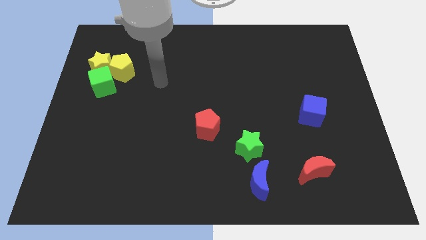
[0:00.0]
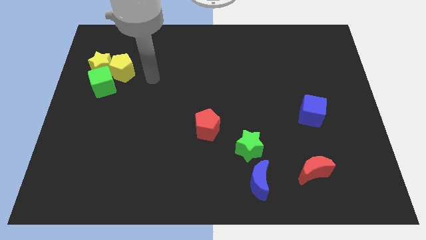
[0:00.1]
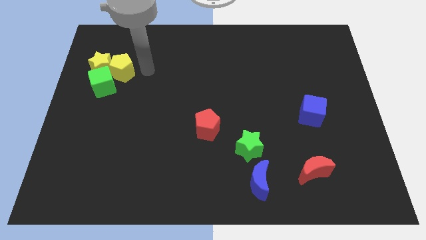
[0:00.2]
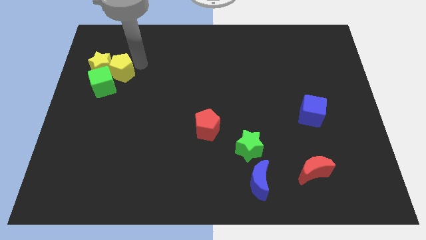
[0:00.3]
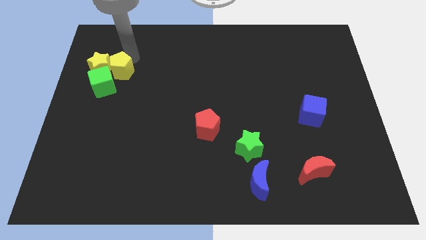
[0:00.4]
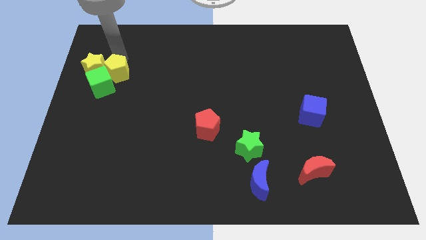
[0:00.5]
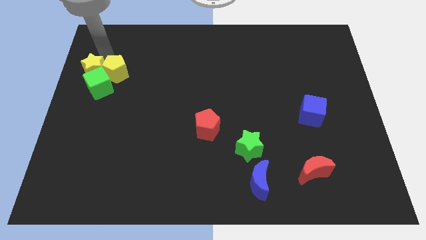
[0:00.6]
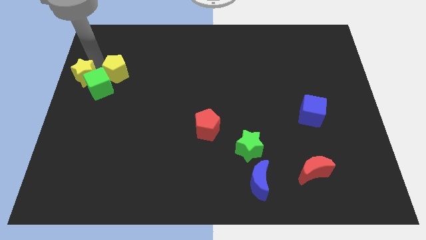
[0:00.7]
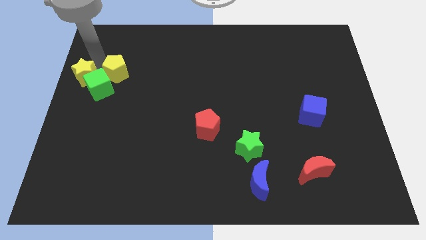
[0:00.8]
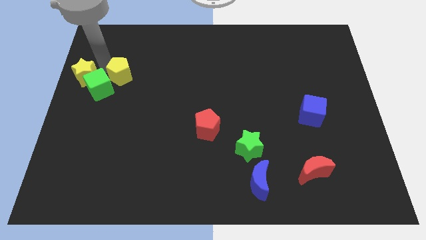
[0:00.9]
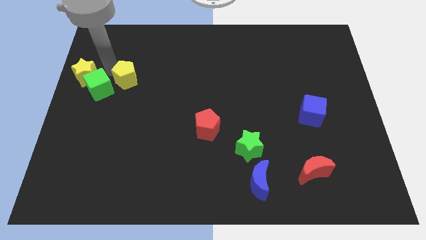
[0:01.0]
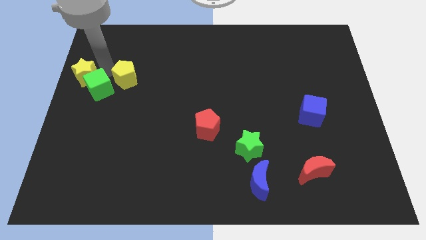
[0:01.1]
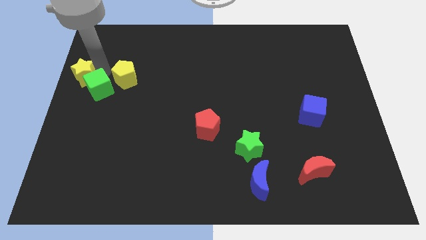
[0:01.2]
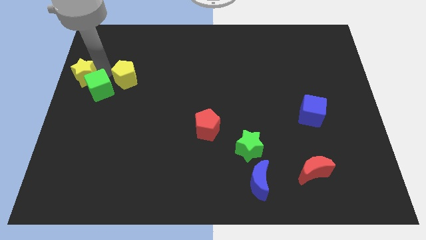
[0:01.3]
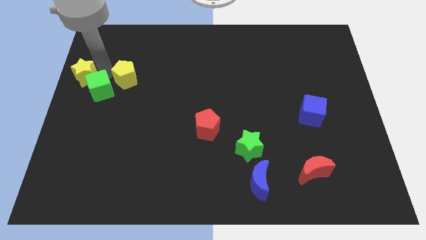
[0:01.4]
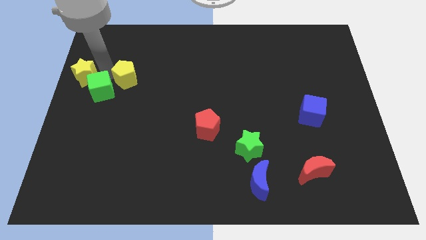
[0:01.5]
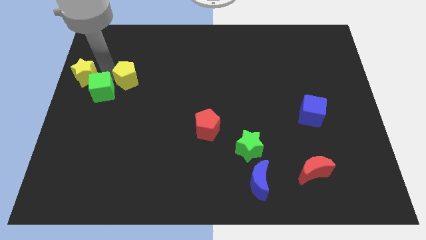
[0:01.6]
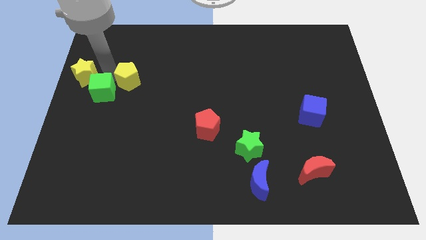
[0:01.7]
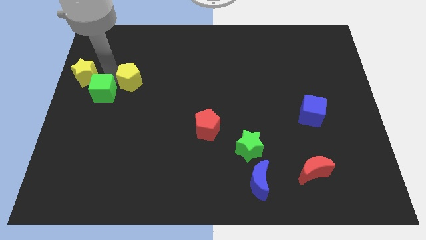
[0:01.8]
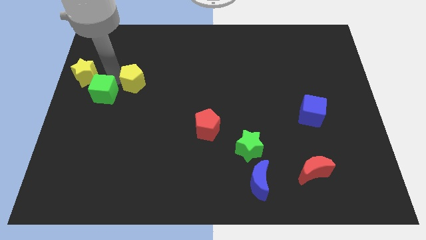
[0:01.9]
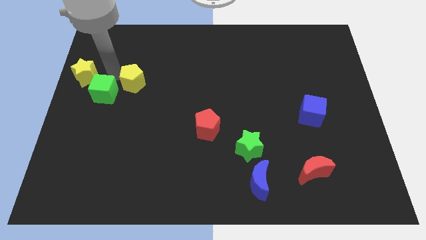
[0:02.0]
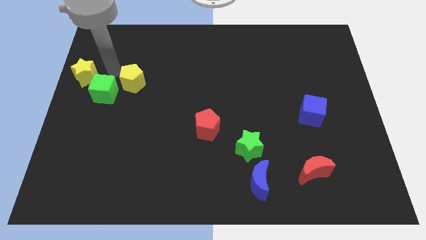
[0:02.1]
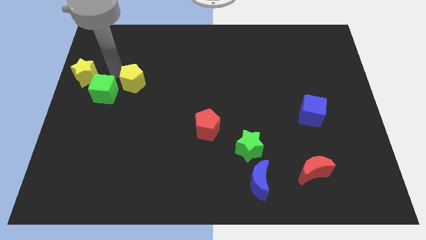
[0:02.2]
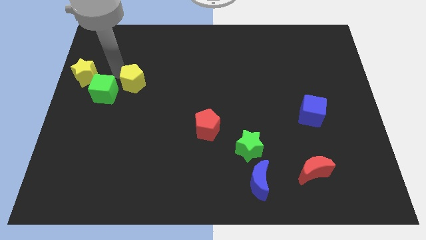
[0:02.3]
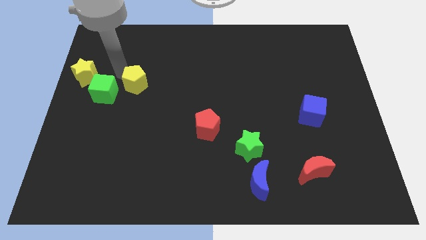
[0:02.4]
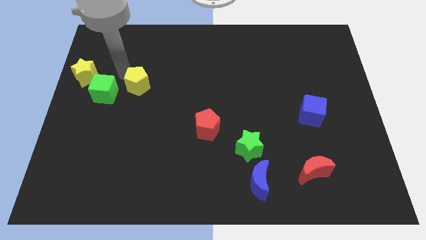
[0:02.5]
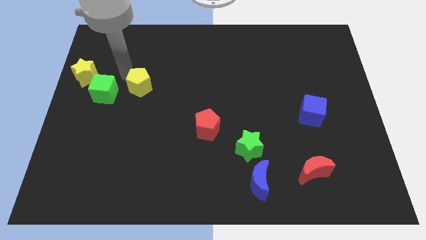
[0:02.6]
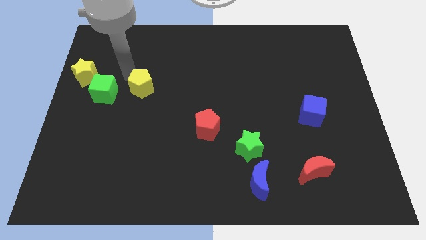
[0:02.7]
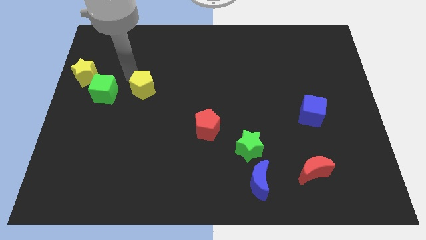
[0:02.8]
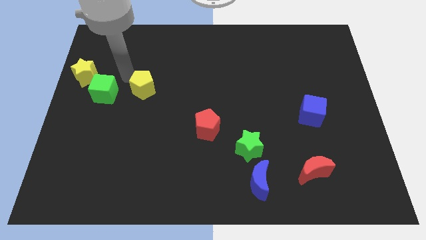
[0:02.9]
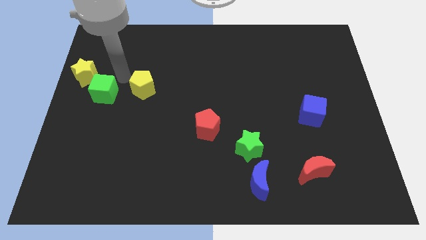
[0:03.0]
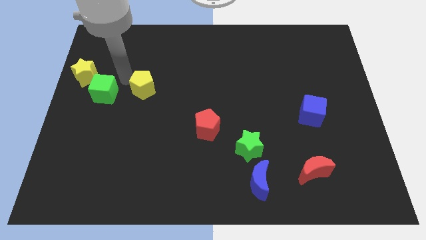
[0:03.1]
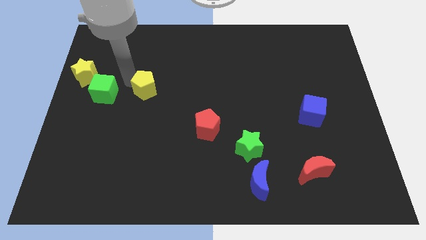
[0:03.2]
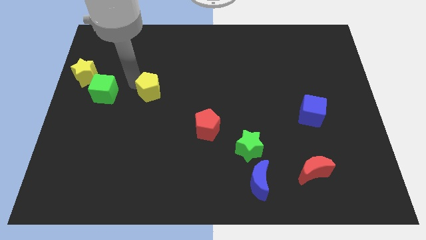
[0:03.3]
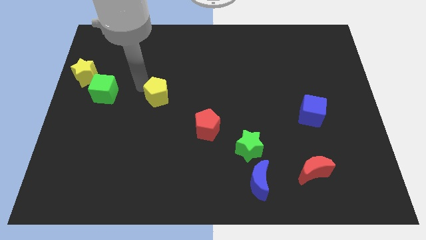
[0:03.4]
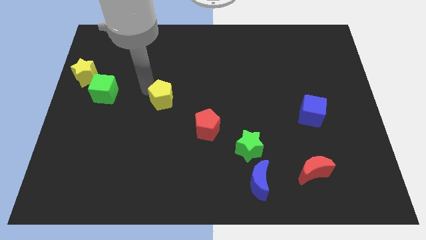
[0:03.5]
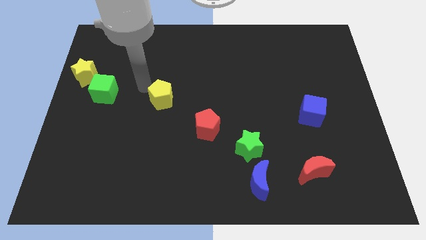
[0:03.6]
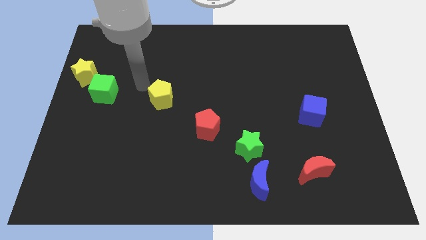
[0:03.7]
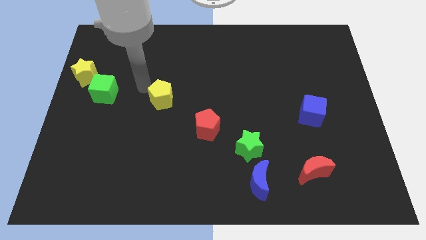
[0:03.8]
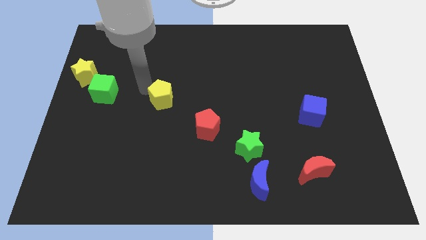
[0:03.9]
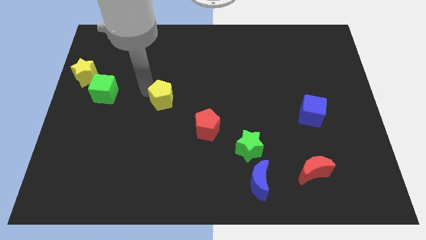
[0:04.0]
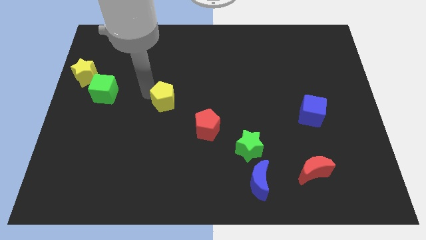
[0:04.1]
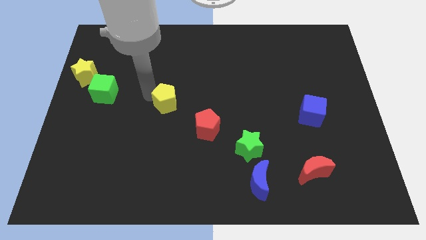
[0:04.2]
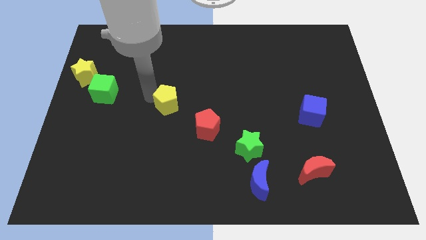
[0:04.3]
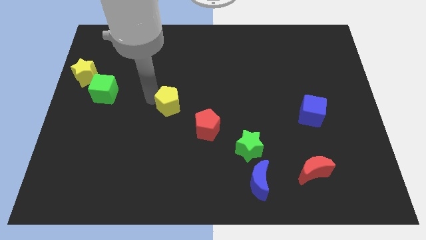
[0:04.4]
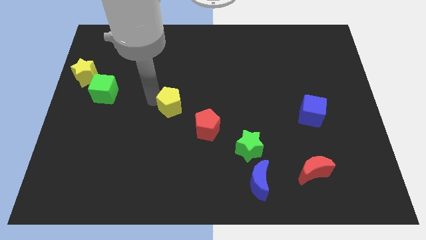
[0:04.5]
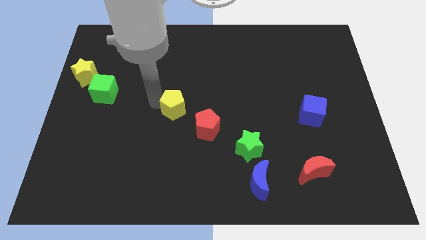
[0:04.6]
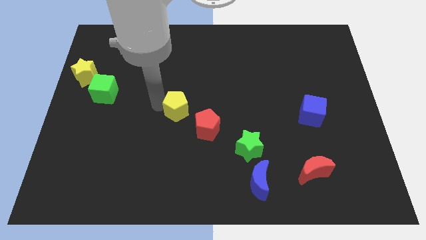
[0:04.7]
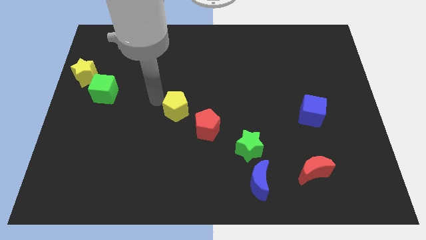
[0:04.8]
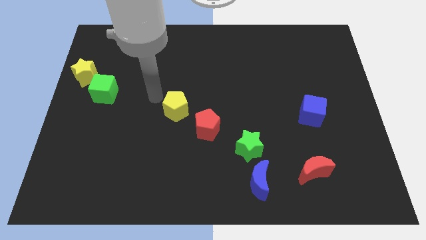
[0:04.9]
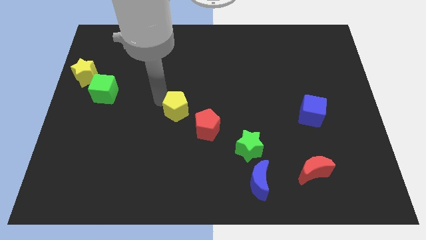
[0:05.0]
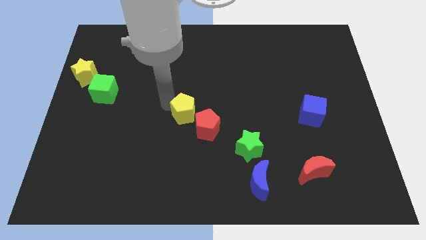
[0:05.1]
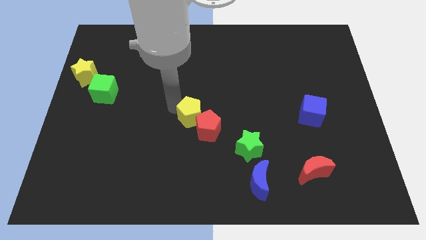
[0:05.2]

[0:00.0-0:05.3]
slide the yellow pentagon to the red pentagon

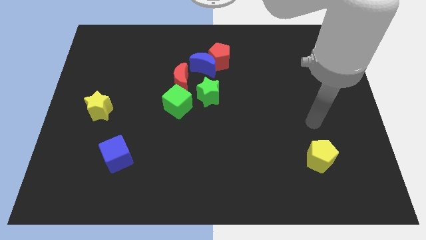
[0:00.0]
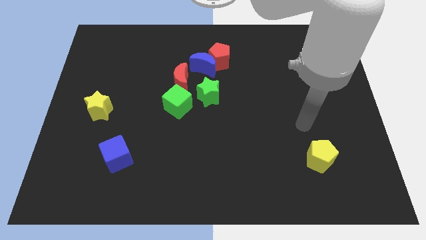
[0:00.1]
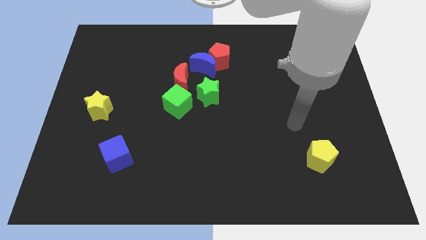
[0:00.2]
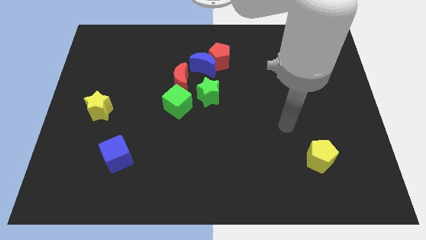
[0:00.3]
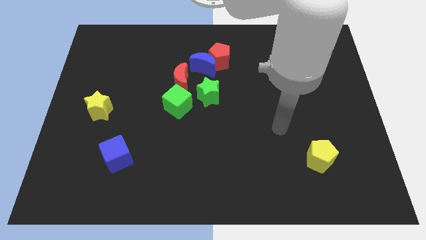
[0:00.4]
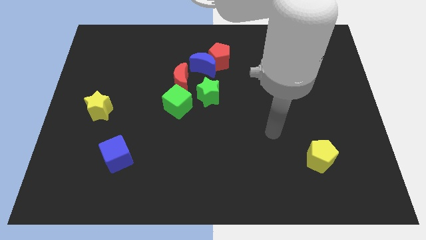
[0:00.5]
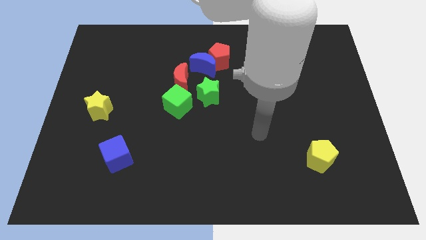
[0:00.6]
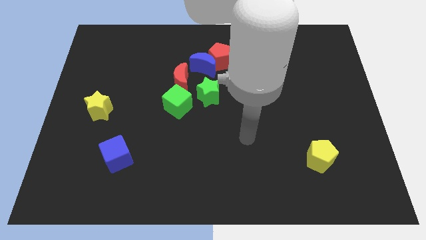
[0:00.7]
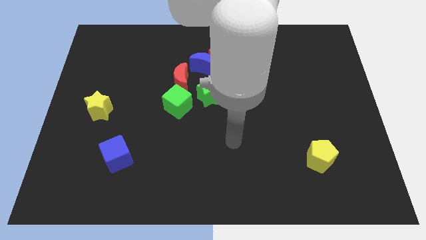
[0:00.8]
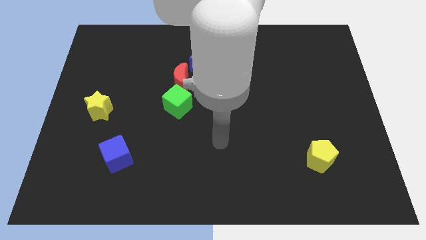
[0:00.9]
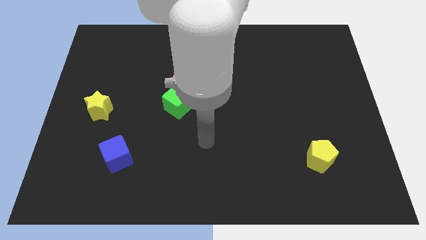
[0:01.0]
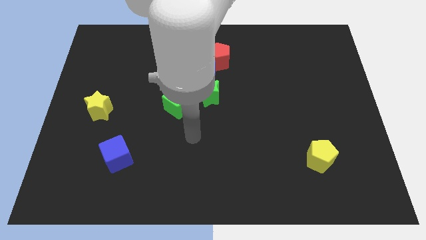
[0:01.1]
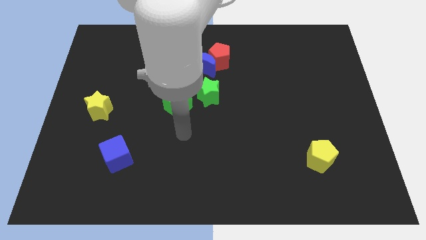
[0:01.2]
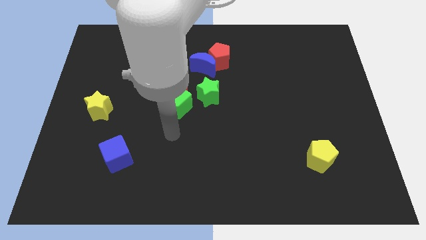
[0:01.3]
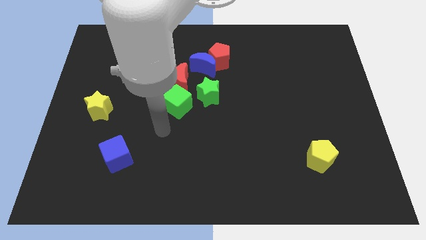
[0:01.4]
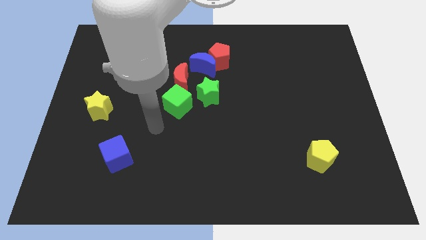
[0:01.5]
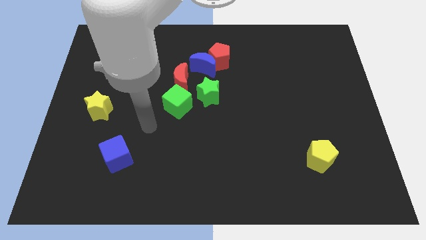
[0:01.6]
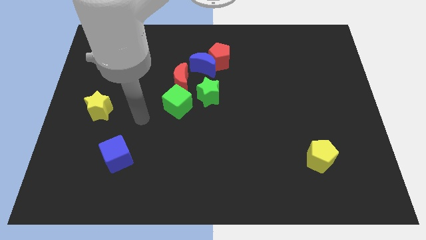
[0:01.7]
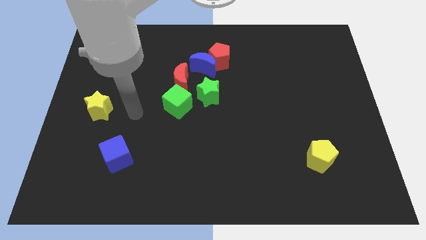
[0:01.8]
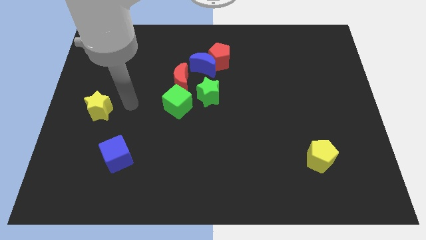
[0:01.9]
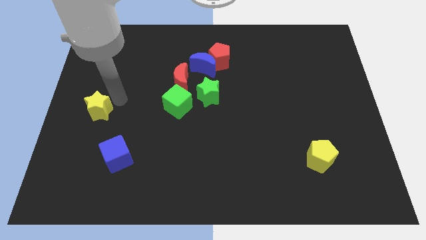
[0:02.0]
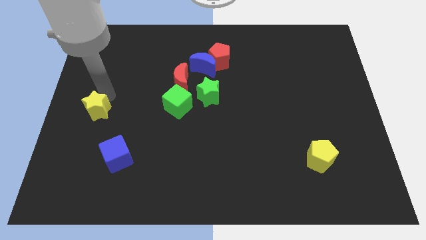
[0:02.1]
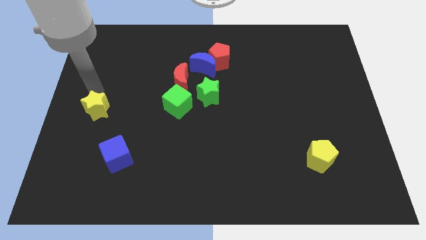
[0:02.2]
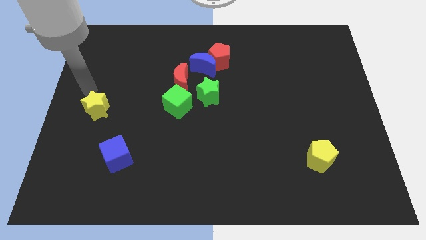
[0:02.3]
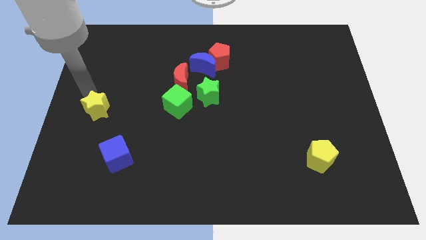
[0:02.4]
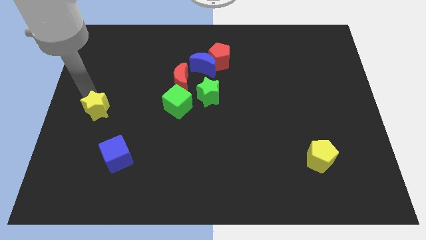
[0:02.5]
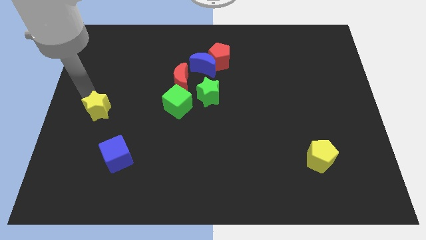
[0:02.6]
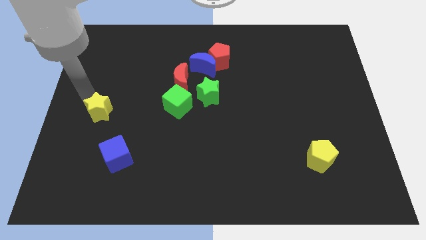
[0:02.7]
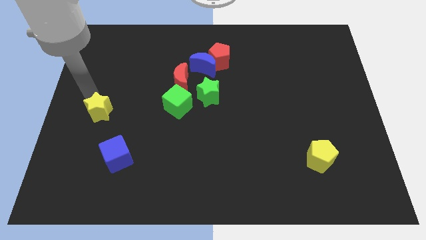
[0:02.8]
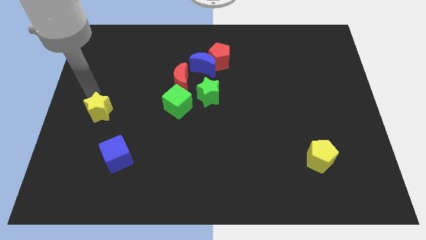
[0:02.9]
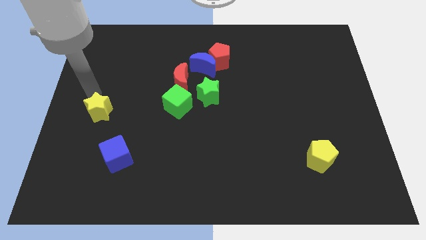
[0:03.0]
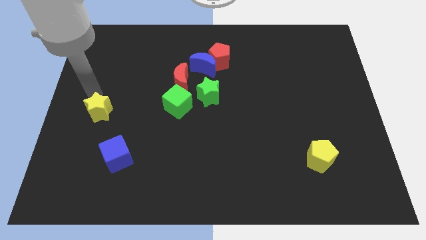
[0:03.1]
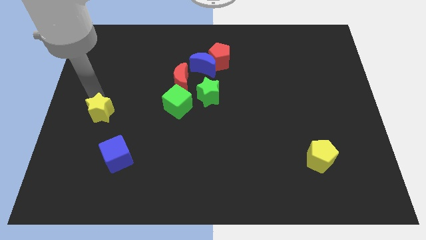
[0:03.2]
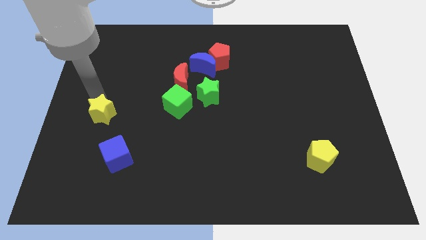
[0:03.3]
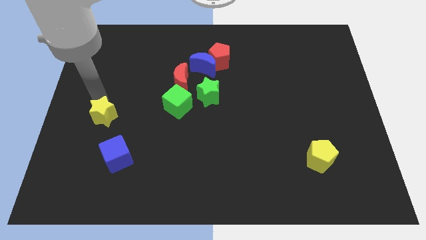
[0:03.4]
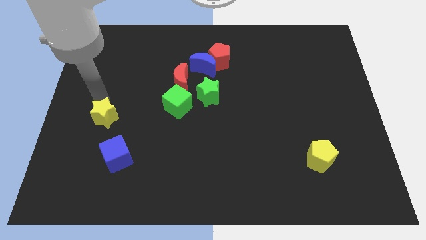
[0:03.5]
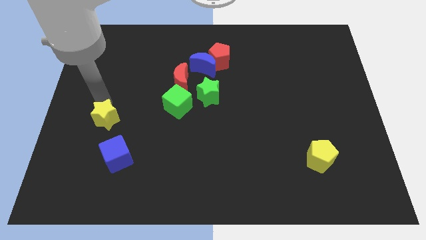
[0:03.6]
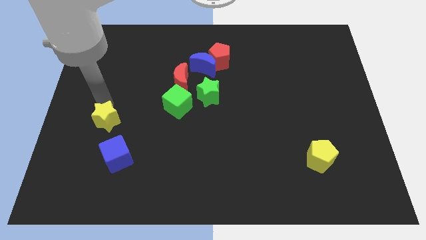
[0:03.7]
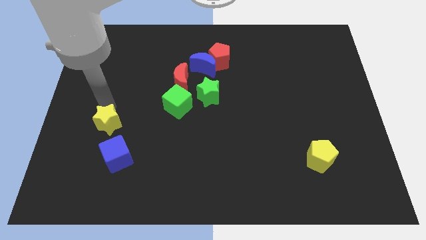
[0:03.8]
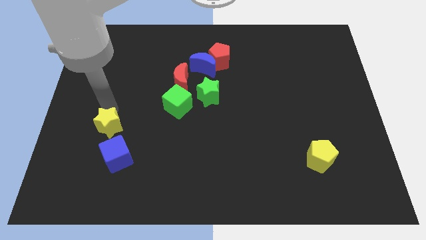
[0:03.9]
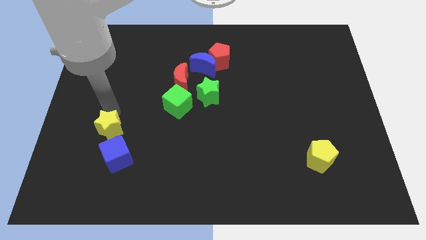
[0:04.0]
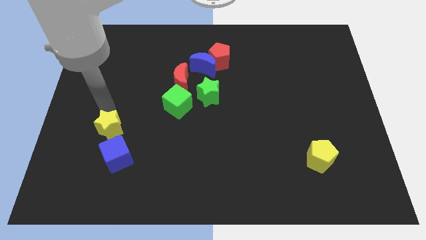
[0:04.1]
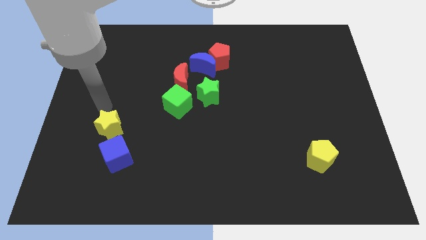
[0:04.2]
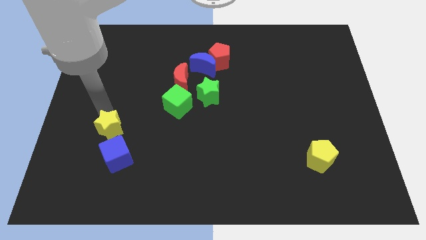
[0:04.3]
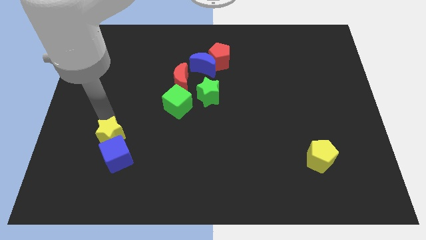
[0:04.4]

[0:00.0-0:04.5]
push the yellow star to the blue cube
